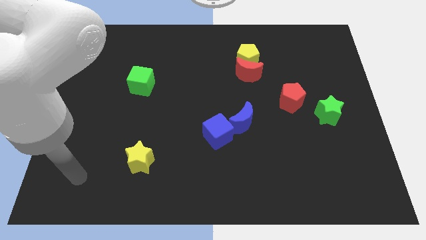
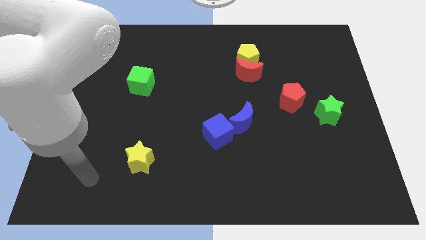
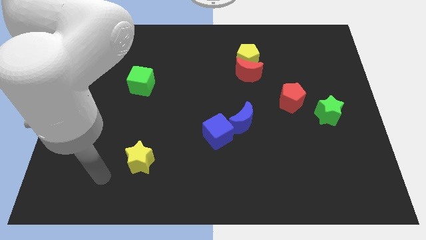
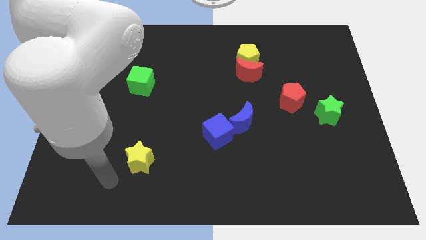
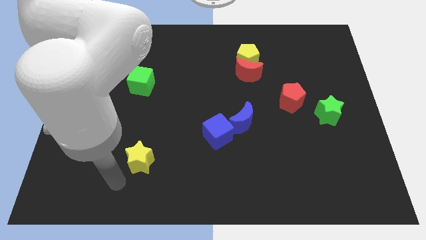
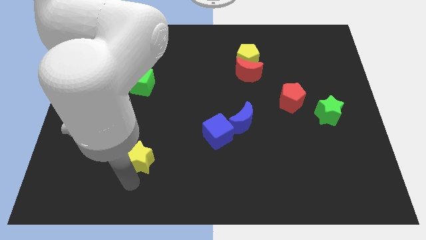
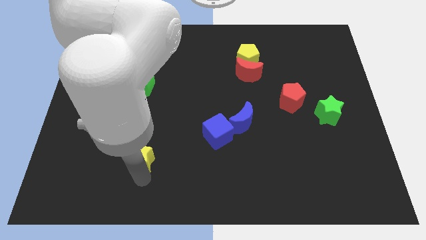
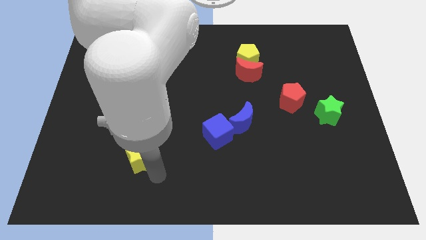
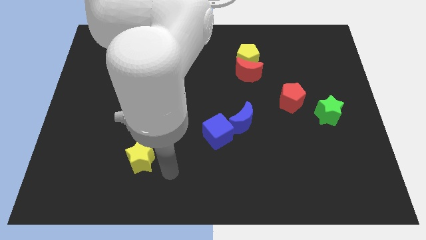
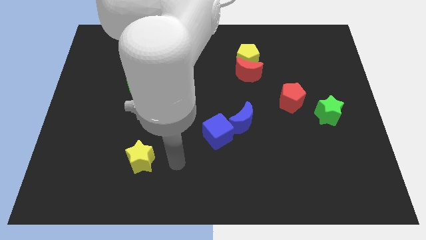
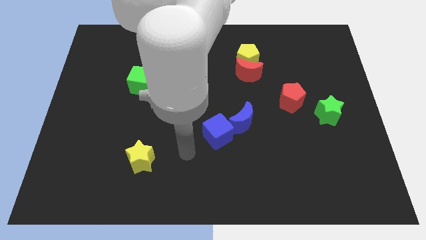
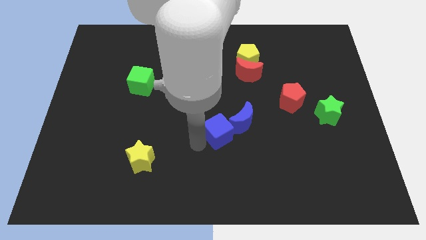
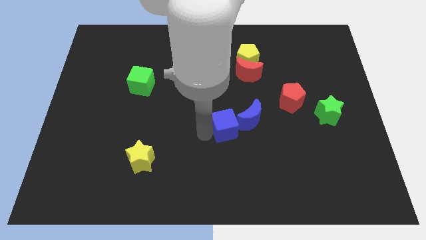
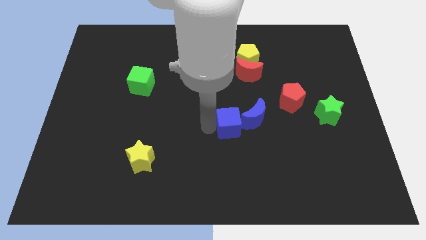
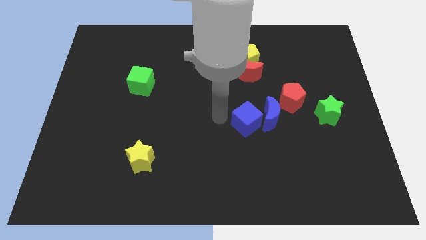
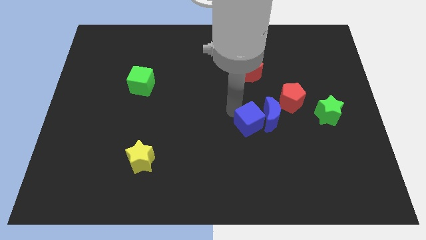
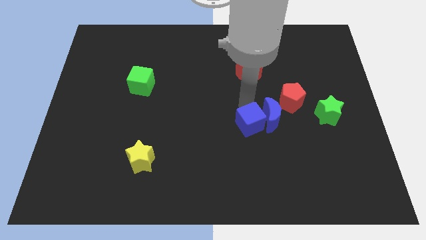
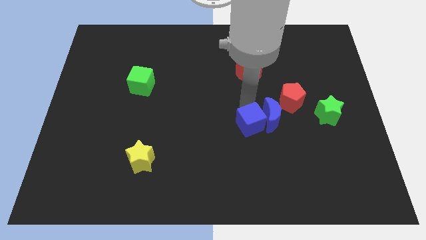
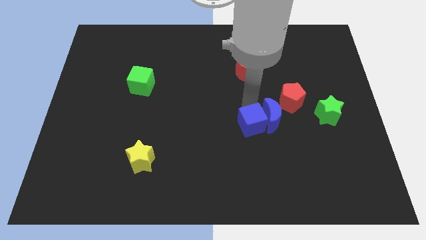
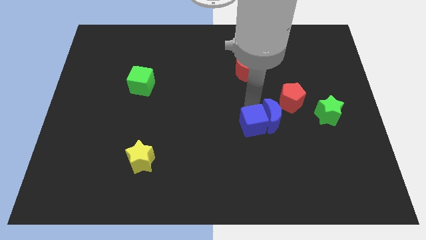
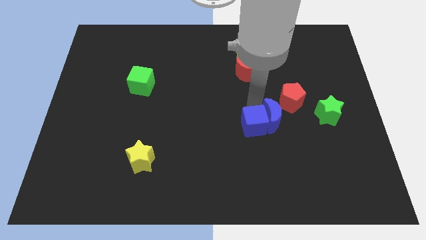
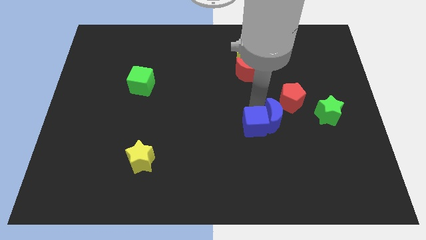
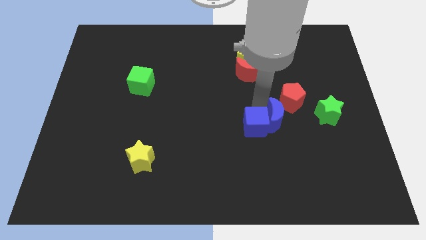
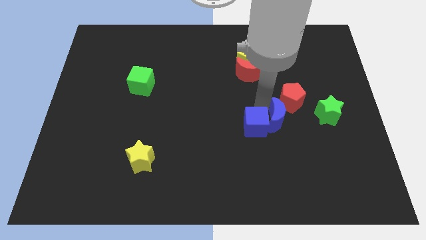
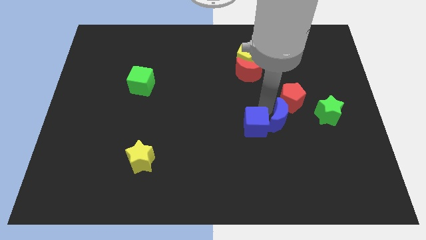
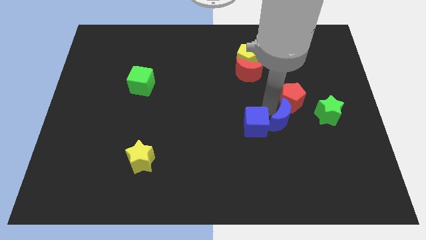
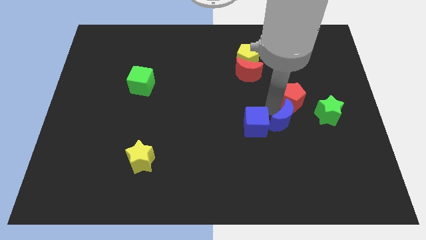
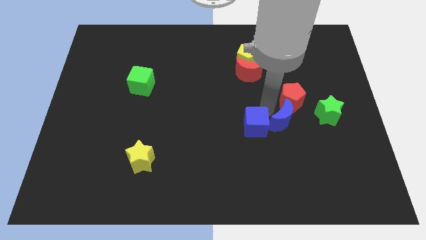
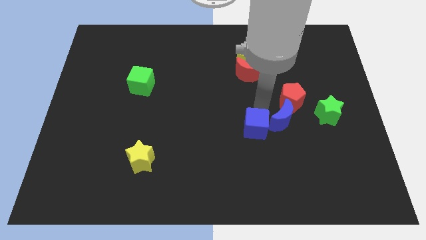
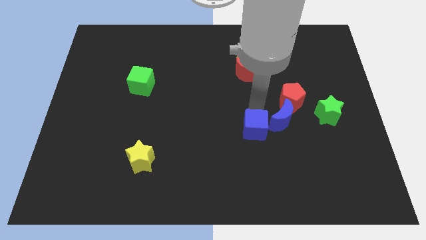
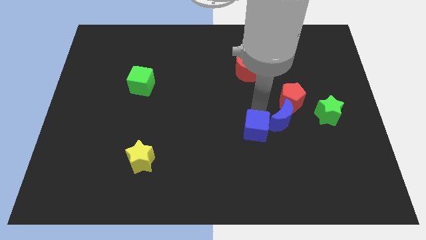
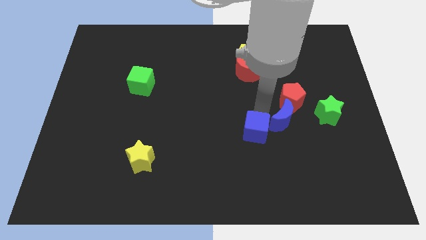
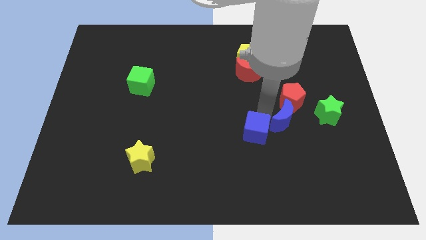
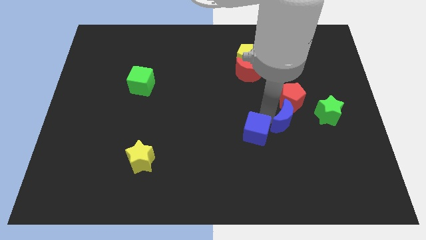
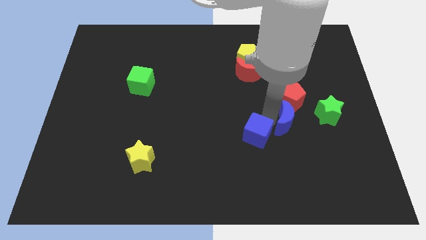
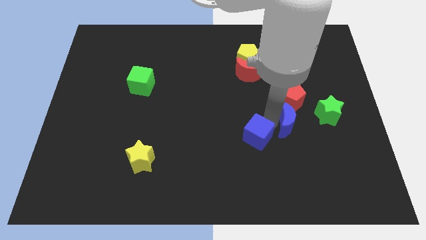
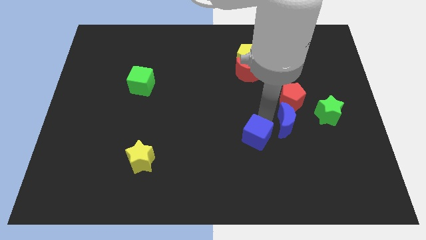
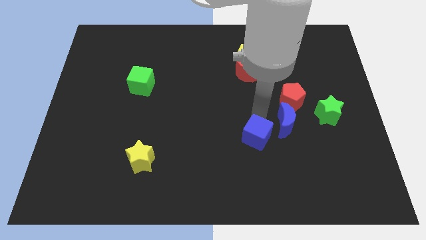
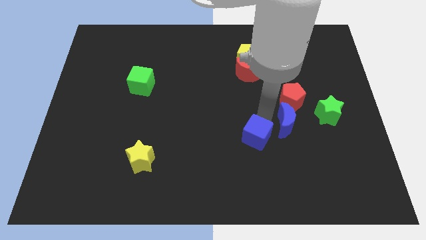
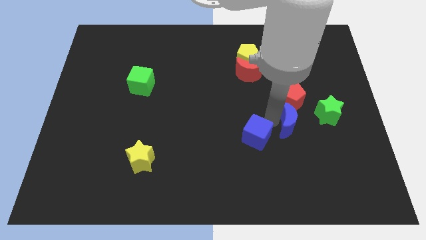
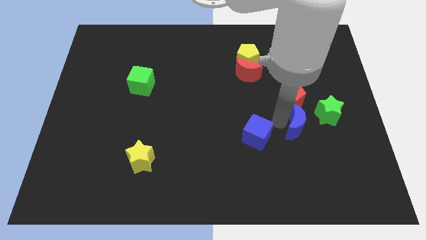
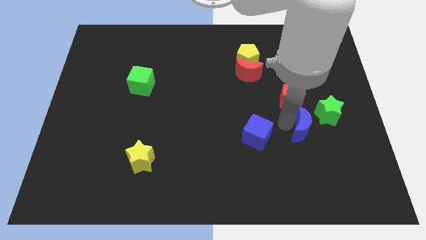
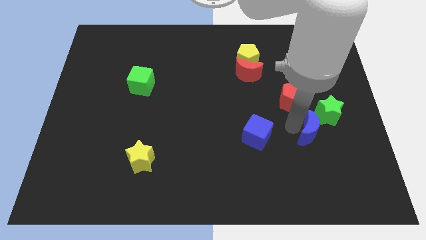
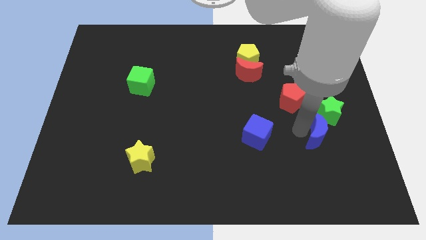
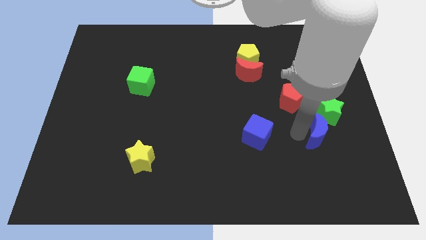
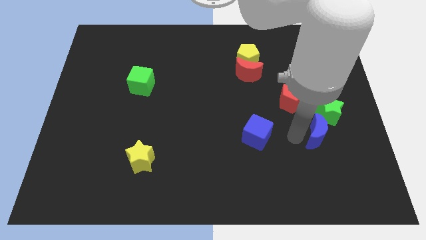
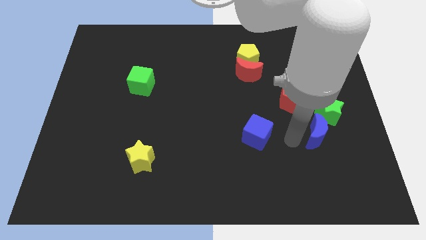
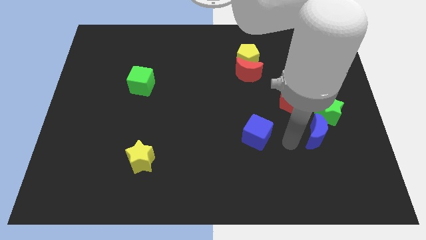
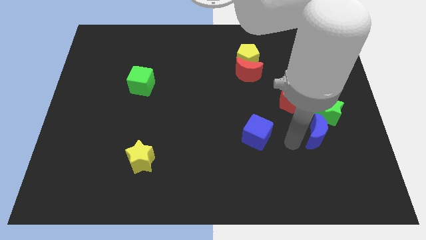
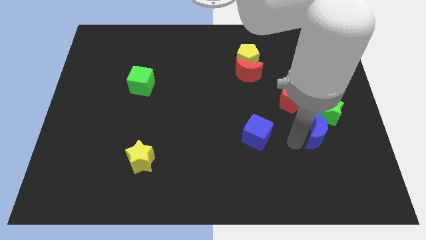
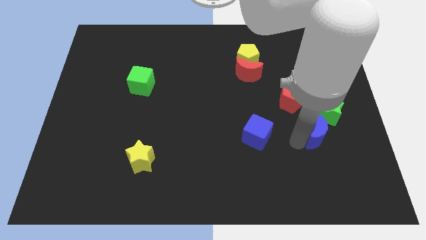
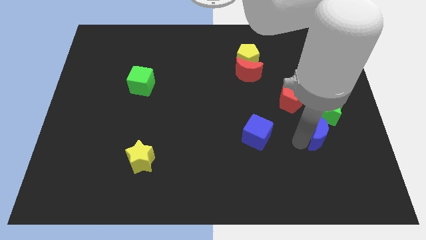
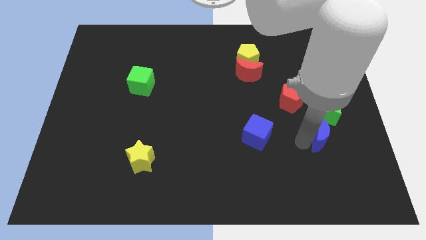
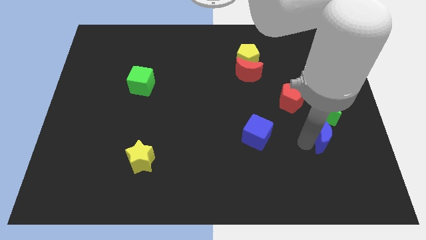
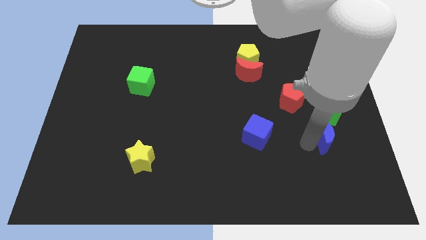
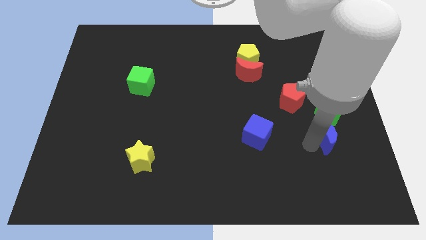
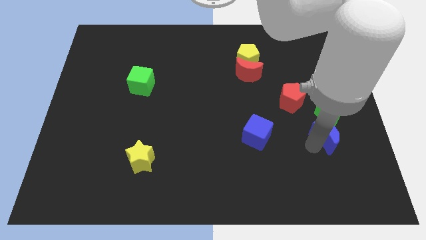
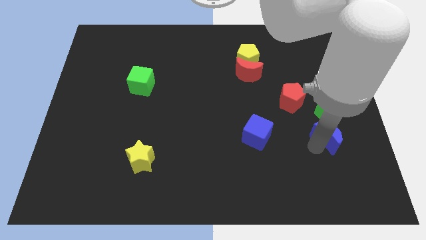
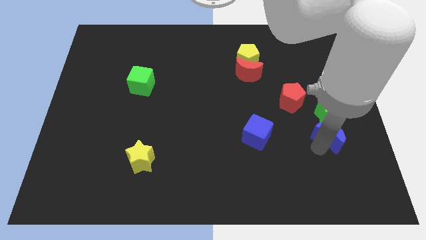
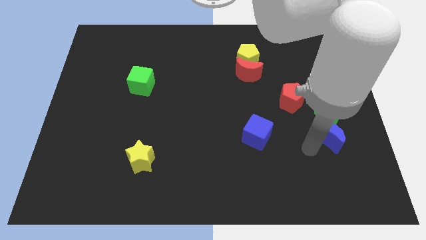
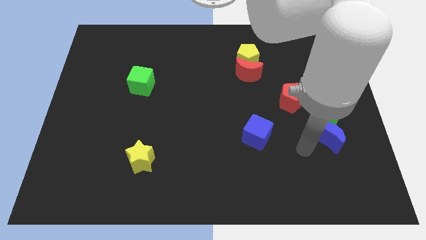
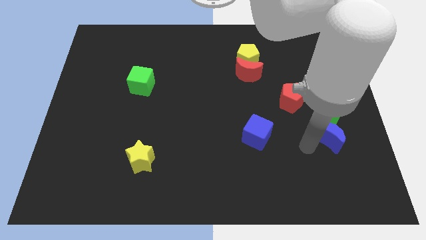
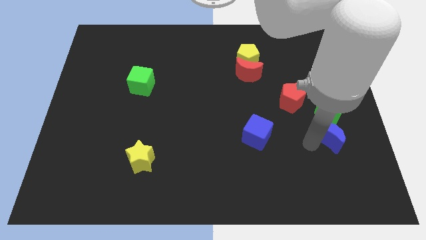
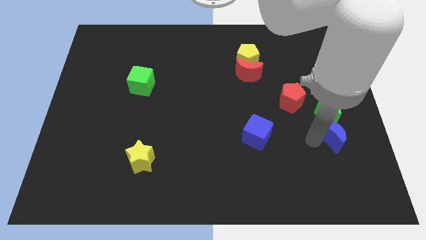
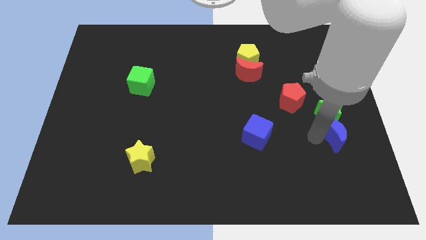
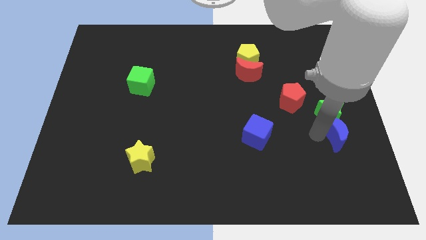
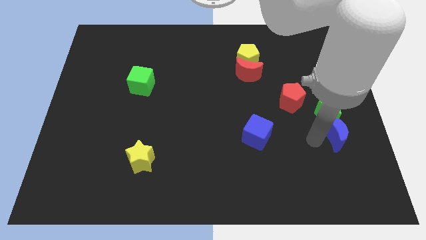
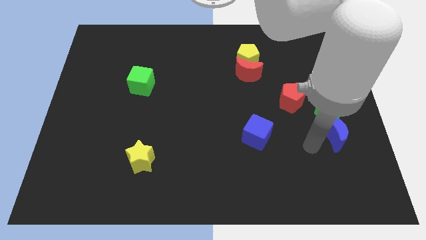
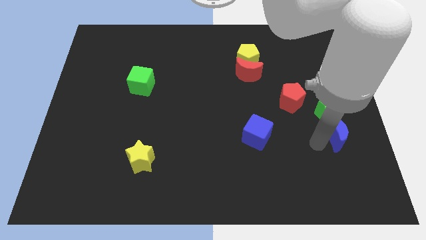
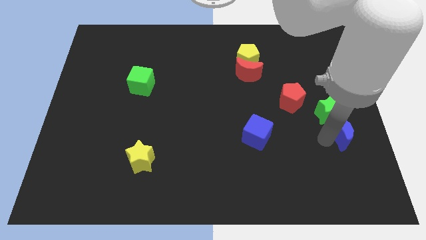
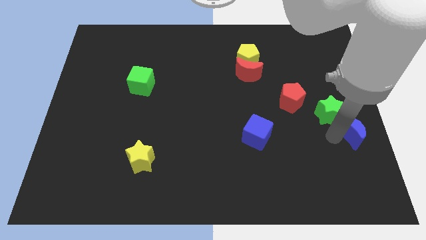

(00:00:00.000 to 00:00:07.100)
move the blue moon to the right side
